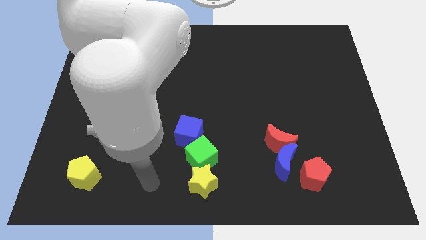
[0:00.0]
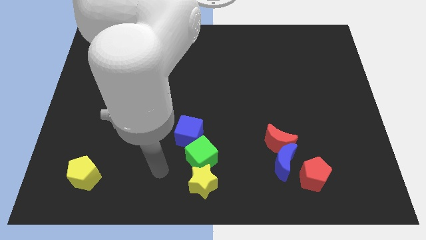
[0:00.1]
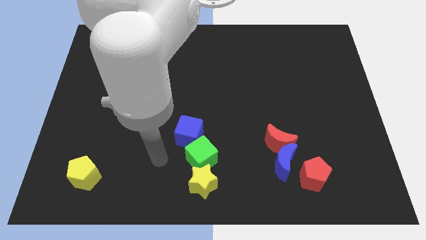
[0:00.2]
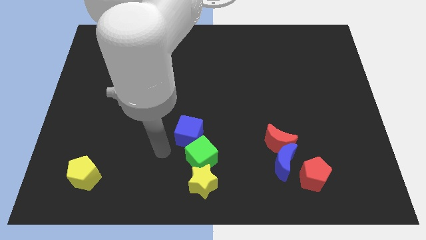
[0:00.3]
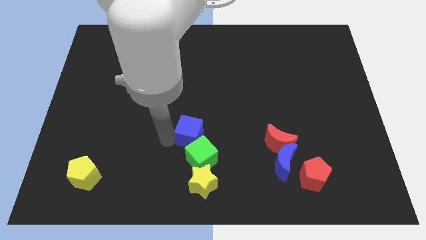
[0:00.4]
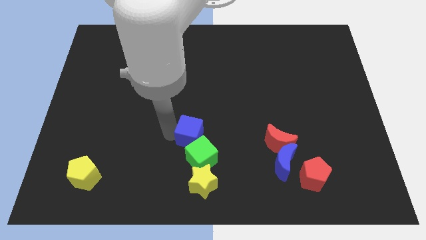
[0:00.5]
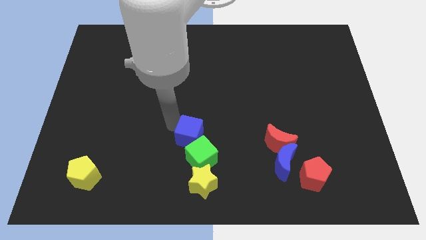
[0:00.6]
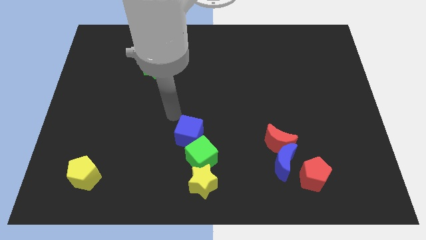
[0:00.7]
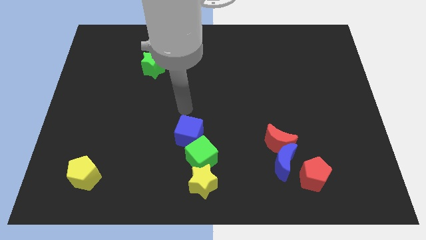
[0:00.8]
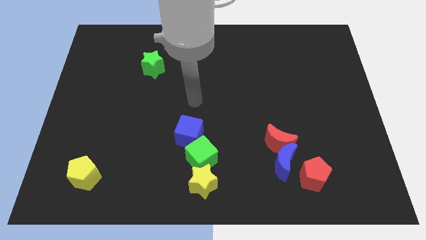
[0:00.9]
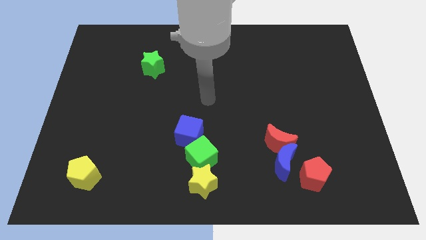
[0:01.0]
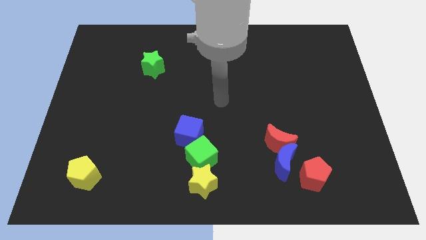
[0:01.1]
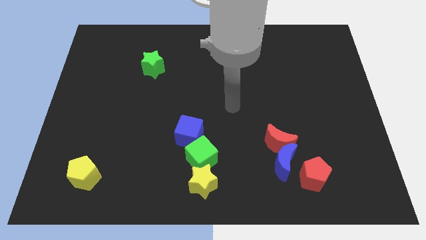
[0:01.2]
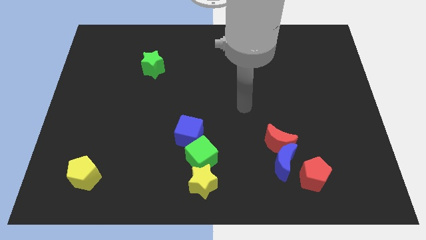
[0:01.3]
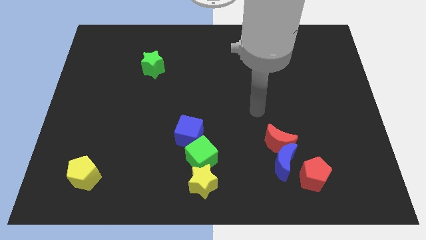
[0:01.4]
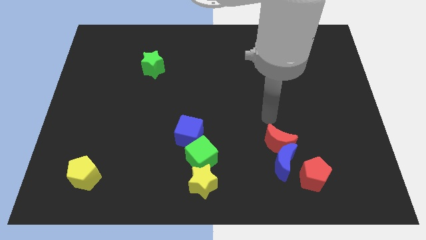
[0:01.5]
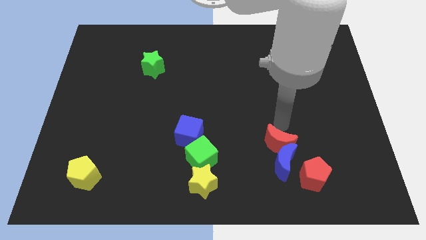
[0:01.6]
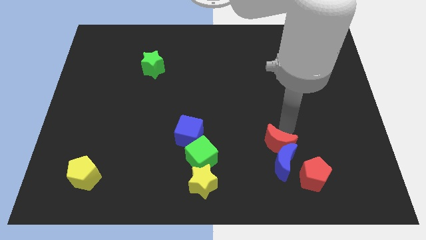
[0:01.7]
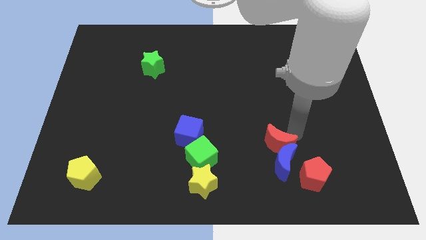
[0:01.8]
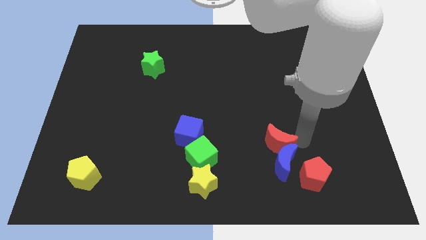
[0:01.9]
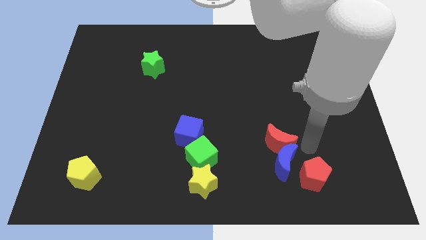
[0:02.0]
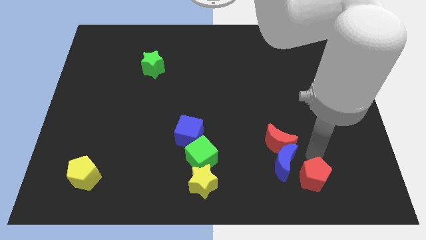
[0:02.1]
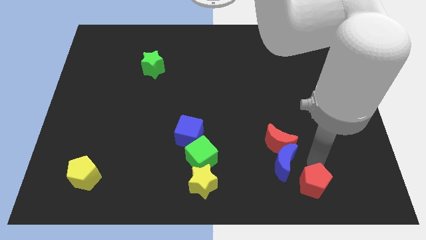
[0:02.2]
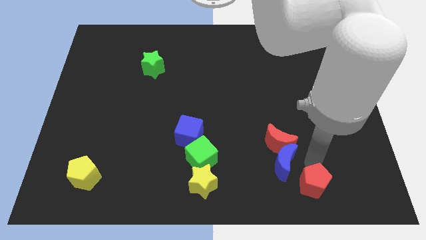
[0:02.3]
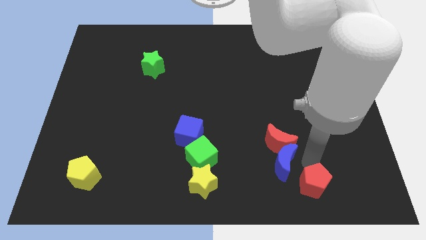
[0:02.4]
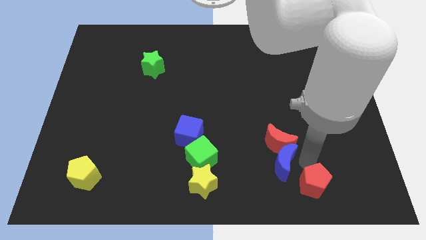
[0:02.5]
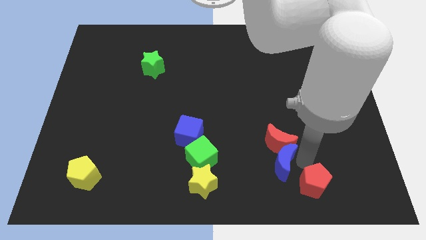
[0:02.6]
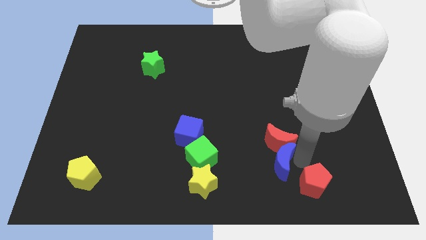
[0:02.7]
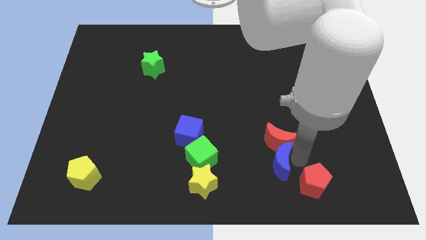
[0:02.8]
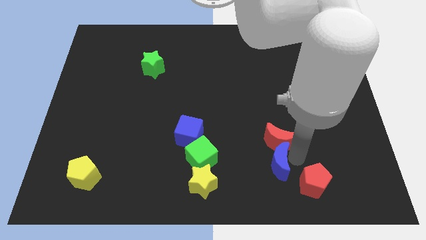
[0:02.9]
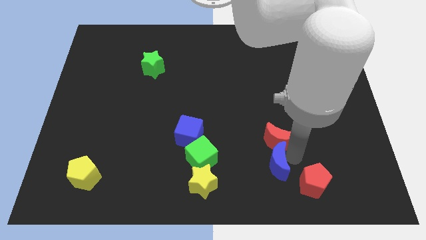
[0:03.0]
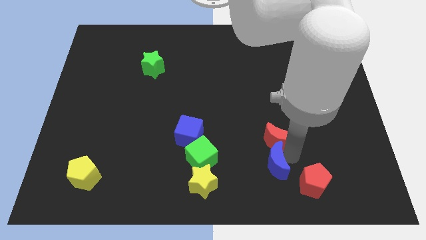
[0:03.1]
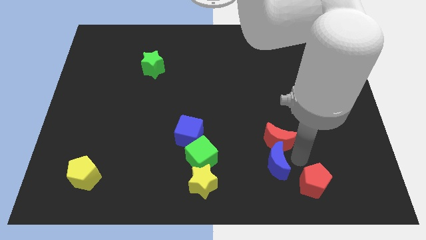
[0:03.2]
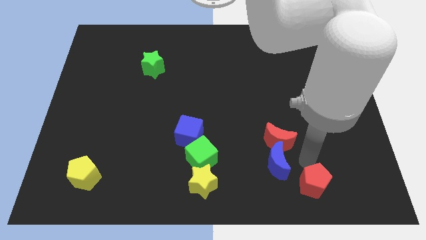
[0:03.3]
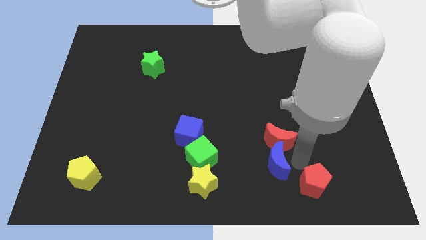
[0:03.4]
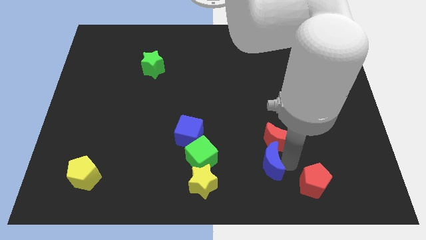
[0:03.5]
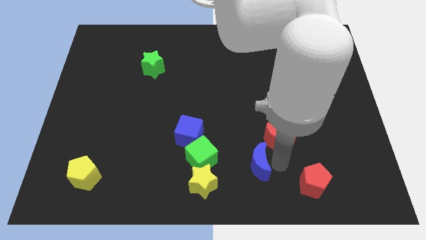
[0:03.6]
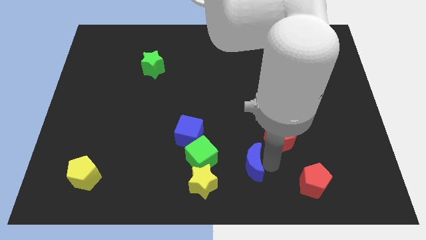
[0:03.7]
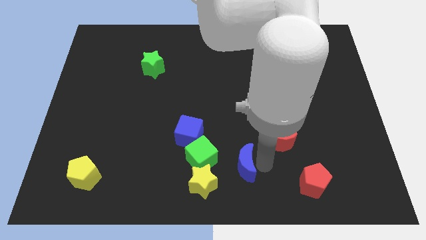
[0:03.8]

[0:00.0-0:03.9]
move the blue moon away from the red moon and red pentagon

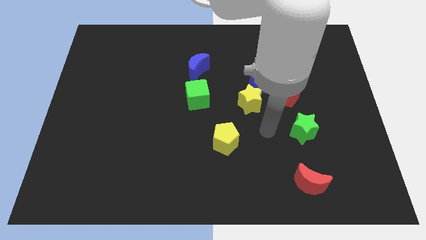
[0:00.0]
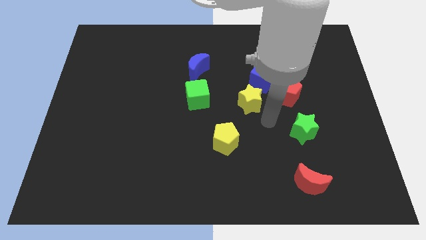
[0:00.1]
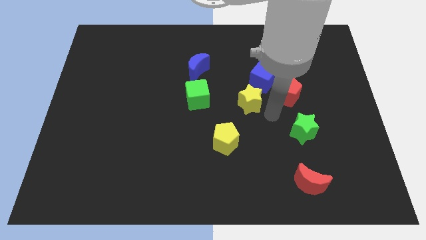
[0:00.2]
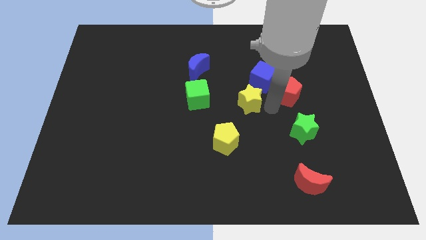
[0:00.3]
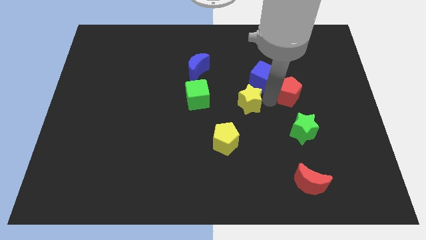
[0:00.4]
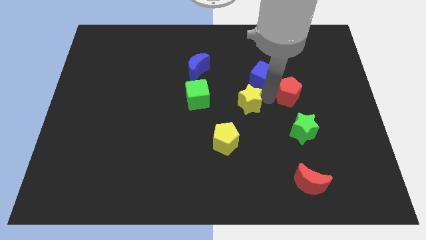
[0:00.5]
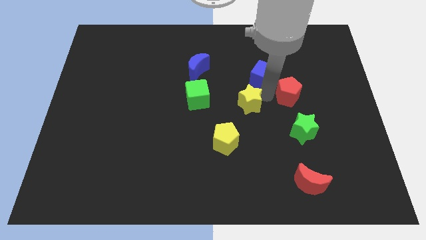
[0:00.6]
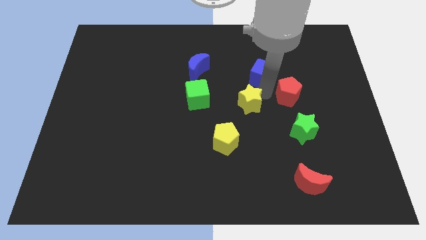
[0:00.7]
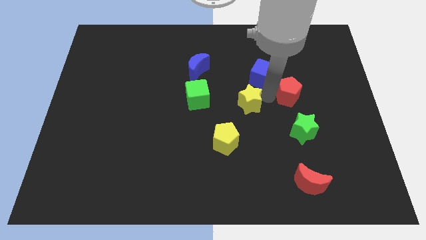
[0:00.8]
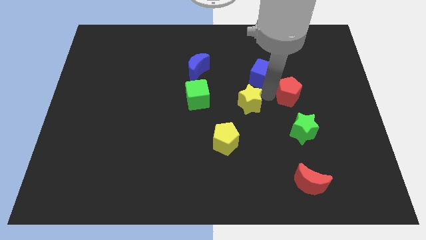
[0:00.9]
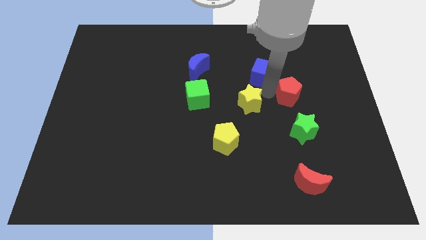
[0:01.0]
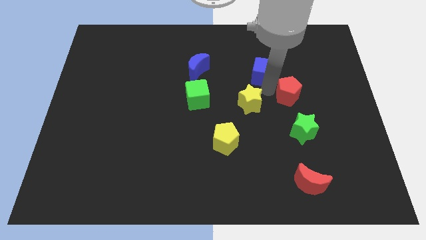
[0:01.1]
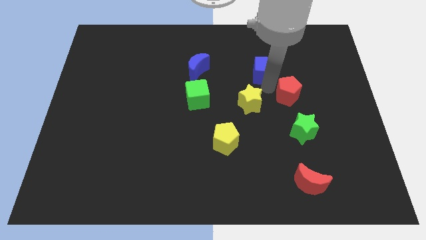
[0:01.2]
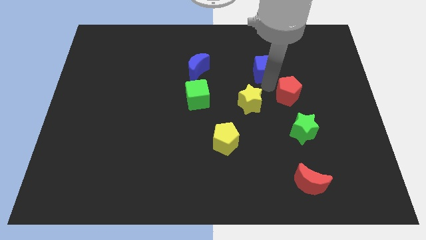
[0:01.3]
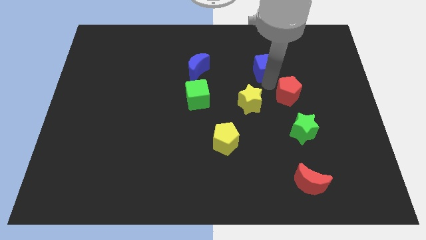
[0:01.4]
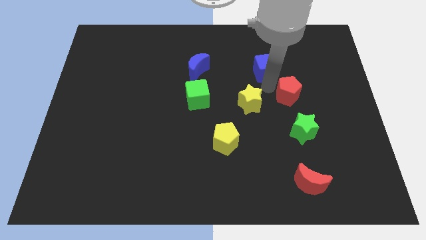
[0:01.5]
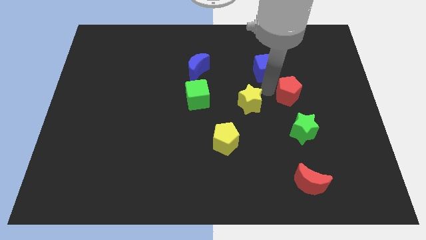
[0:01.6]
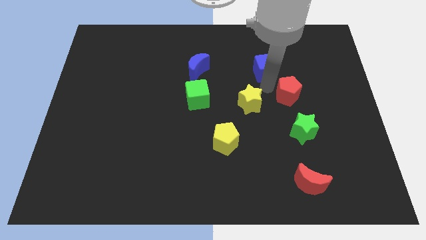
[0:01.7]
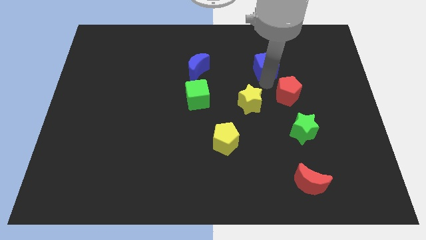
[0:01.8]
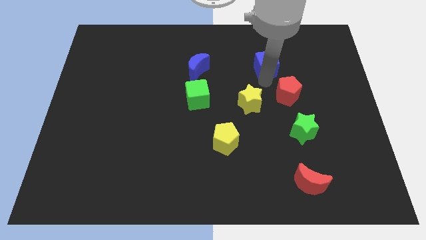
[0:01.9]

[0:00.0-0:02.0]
move the blue cube away from the red pentagon and yellow star

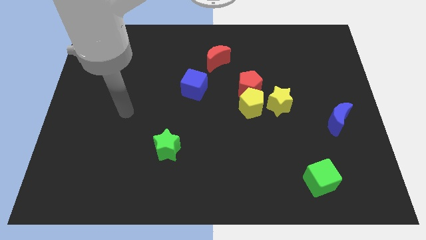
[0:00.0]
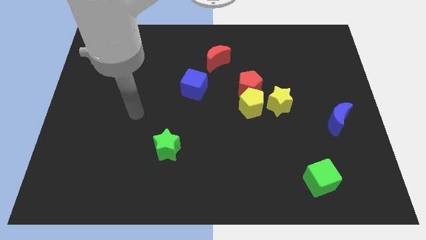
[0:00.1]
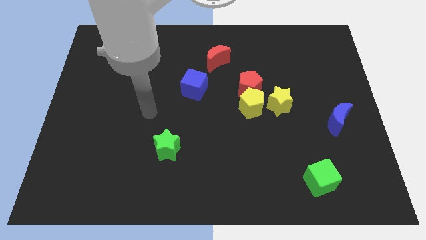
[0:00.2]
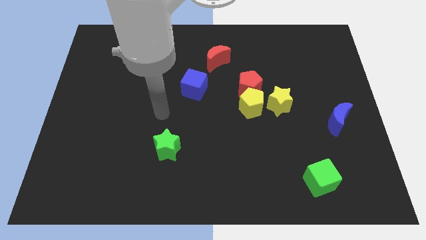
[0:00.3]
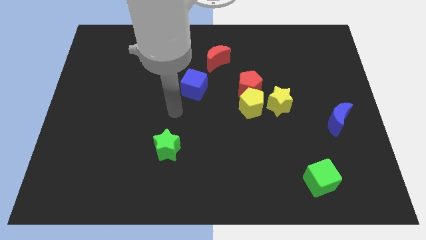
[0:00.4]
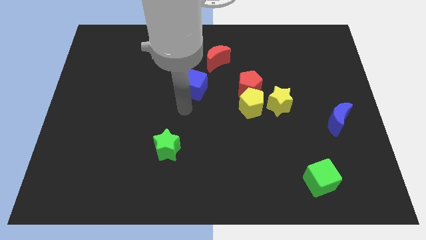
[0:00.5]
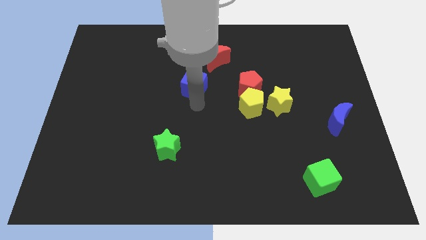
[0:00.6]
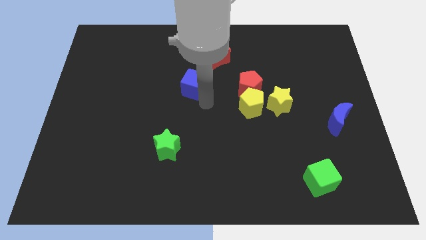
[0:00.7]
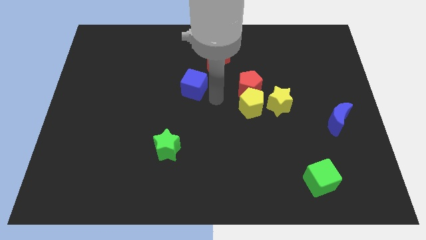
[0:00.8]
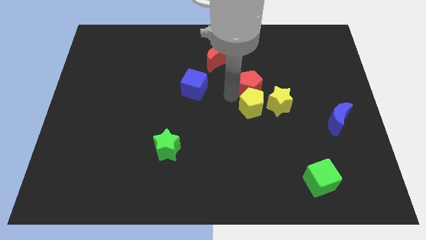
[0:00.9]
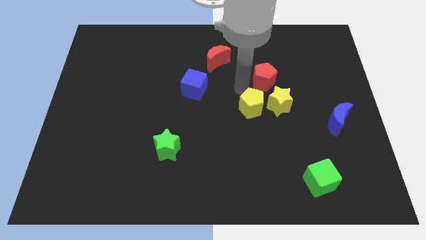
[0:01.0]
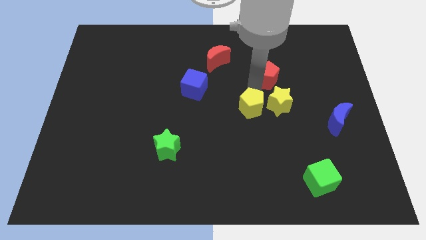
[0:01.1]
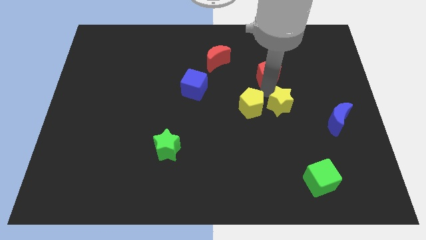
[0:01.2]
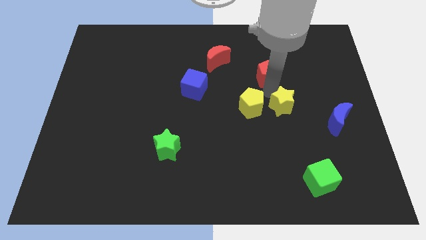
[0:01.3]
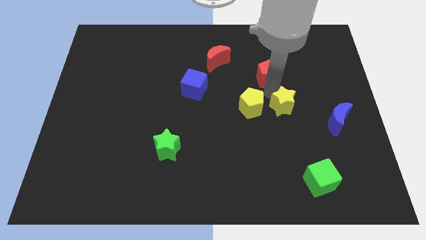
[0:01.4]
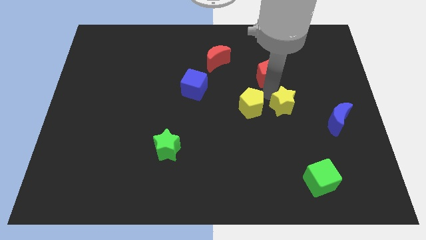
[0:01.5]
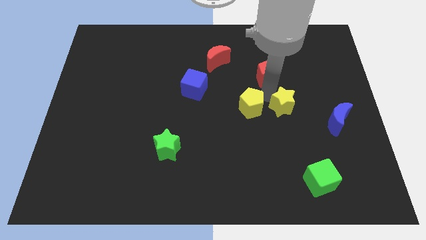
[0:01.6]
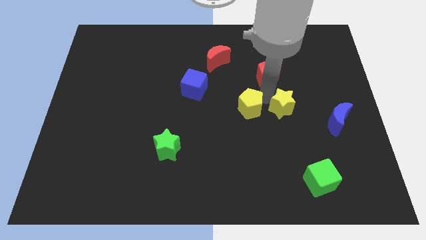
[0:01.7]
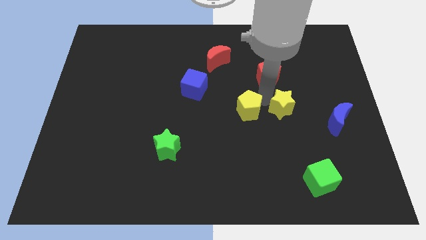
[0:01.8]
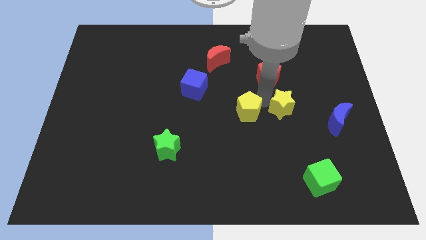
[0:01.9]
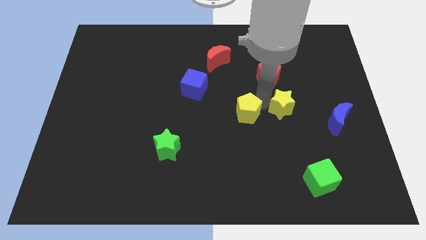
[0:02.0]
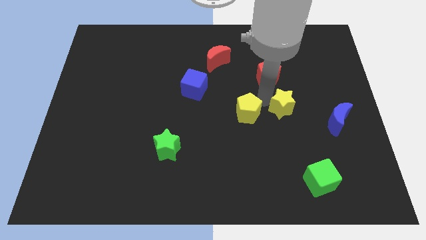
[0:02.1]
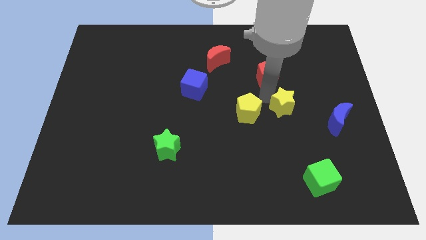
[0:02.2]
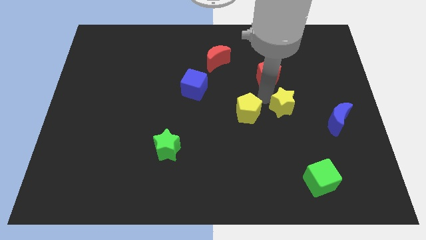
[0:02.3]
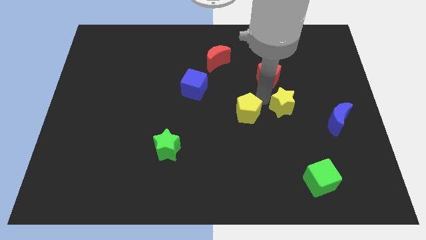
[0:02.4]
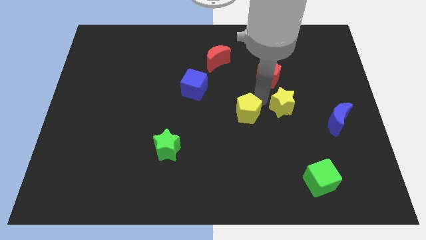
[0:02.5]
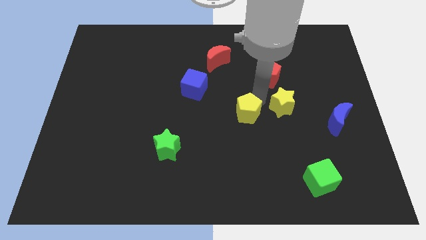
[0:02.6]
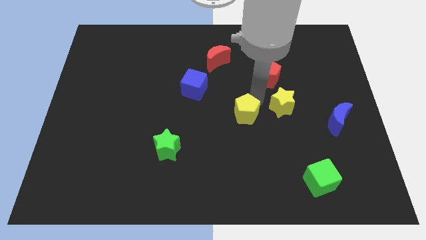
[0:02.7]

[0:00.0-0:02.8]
move the yellow pentagon away from the red pentagon and yellow star

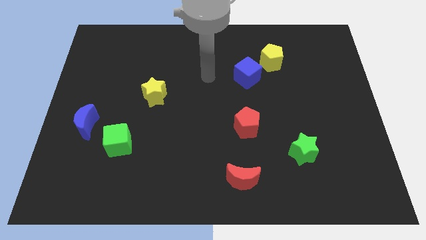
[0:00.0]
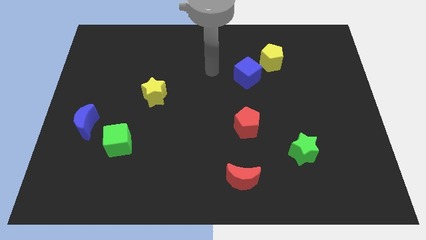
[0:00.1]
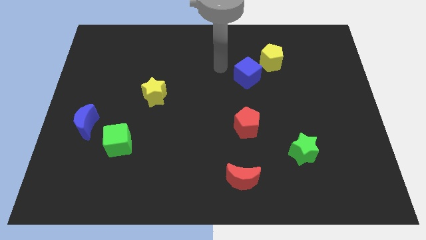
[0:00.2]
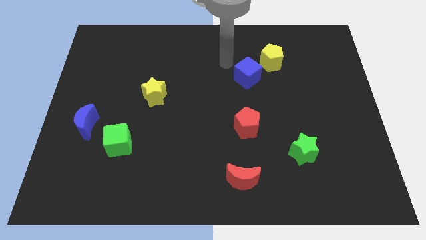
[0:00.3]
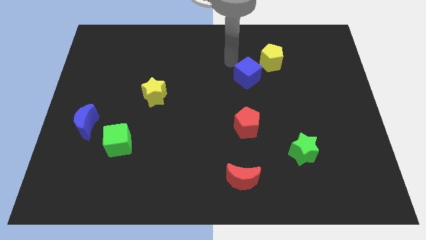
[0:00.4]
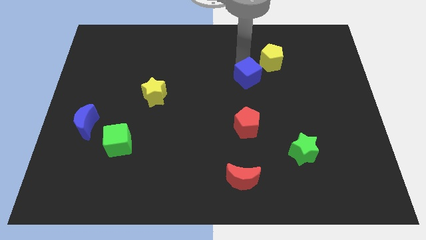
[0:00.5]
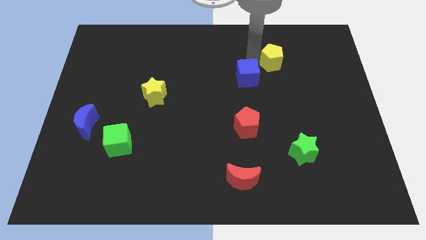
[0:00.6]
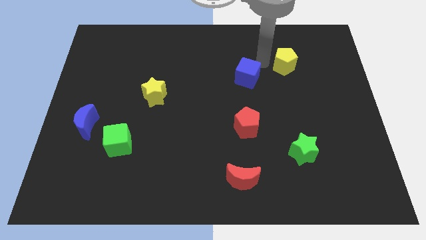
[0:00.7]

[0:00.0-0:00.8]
pull the blue cube apart from the yellow pentagon
